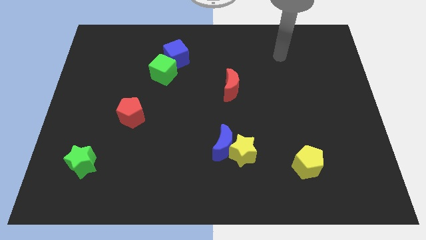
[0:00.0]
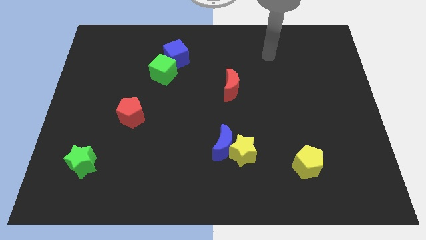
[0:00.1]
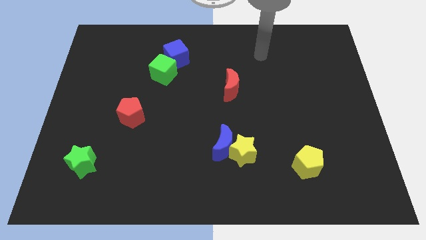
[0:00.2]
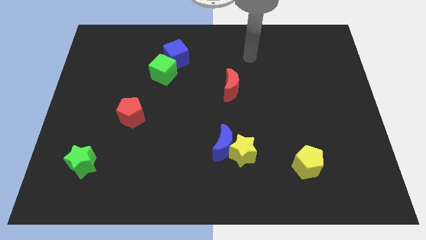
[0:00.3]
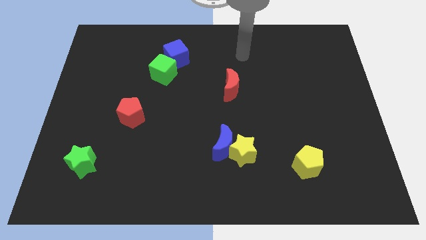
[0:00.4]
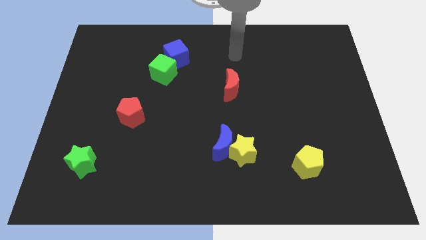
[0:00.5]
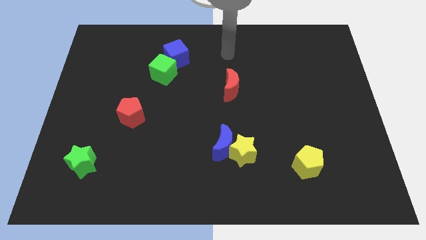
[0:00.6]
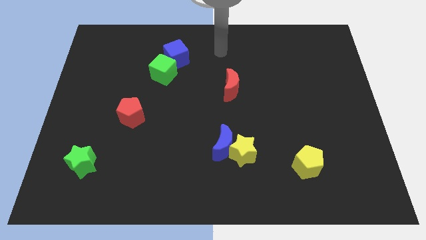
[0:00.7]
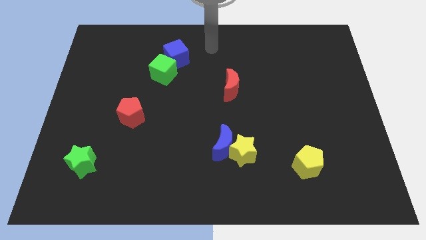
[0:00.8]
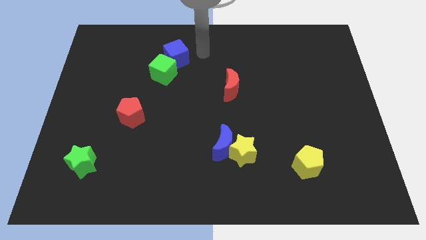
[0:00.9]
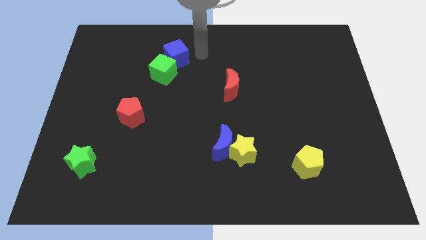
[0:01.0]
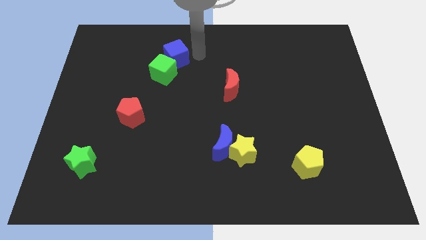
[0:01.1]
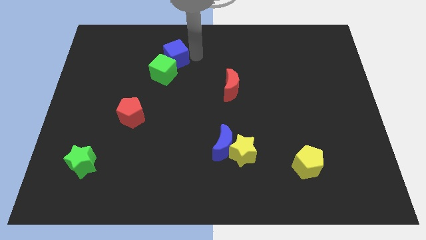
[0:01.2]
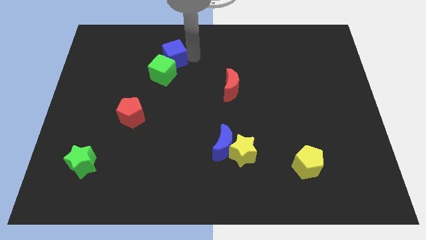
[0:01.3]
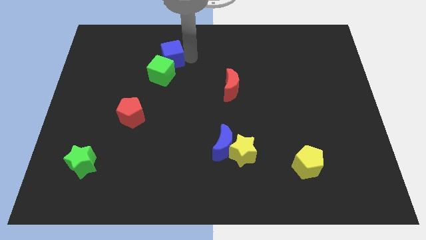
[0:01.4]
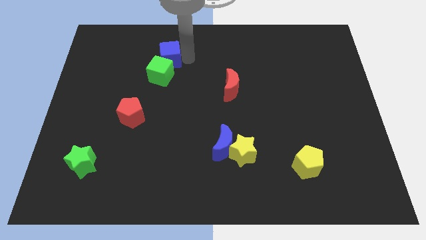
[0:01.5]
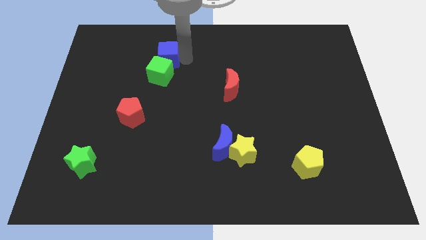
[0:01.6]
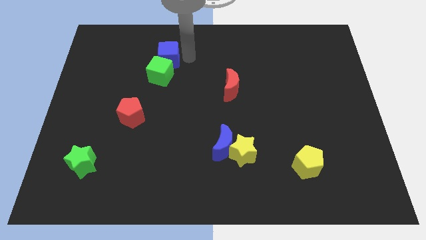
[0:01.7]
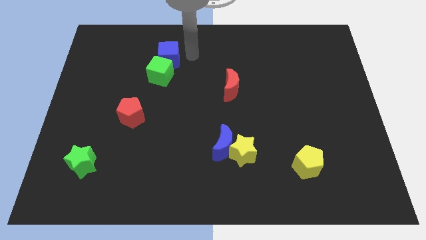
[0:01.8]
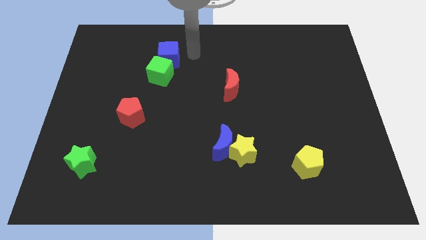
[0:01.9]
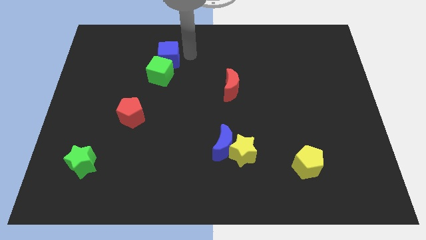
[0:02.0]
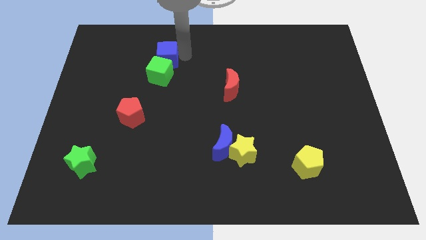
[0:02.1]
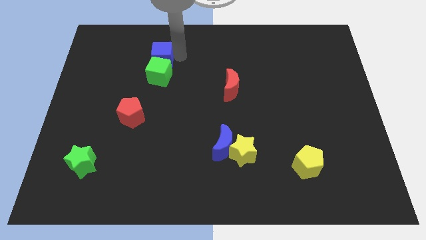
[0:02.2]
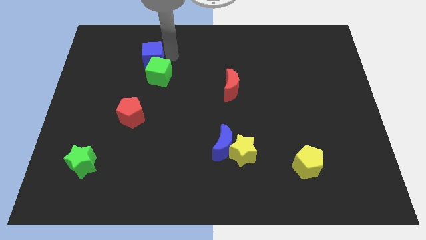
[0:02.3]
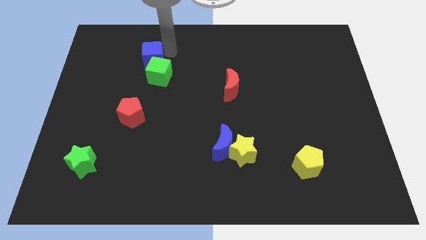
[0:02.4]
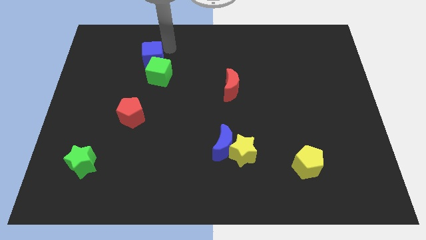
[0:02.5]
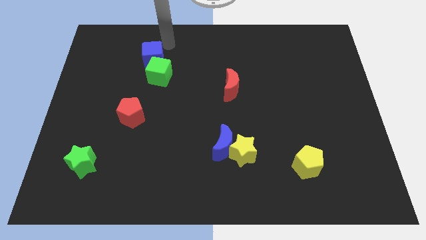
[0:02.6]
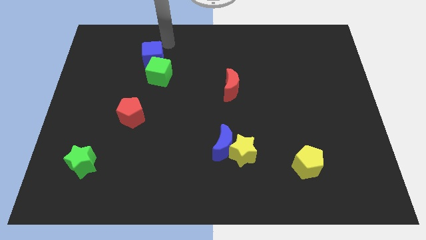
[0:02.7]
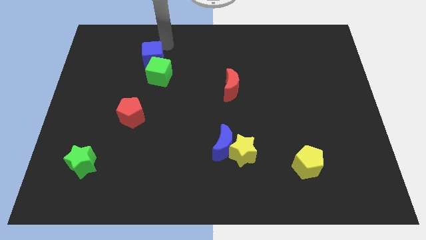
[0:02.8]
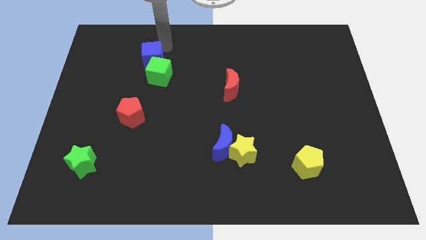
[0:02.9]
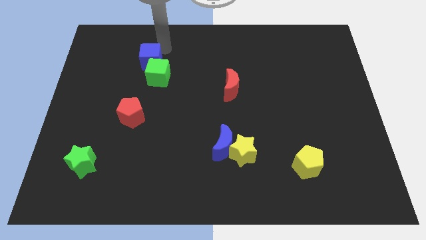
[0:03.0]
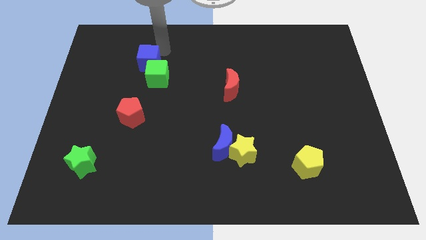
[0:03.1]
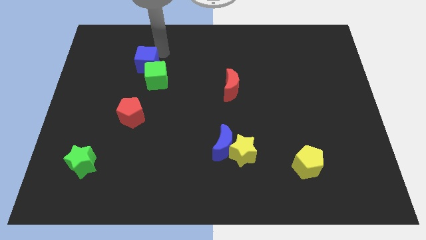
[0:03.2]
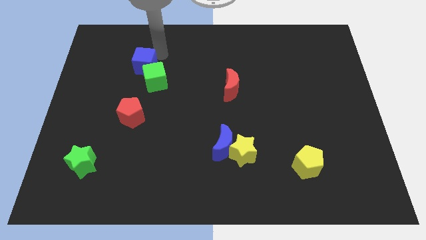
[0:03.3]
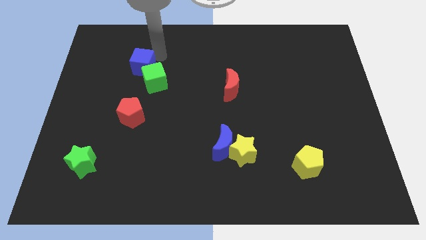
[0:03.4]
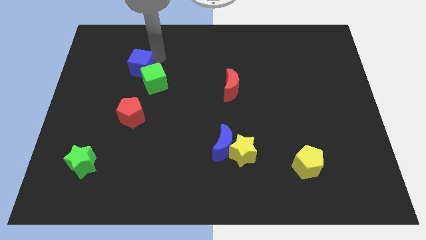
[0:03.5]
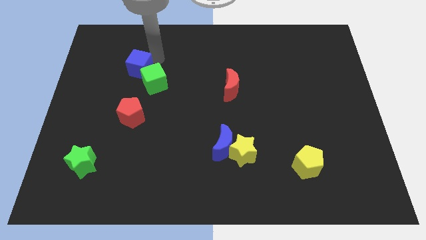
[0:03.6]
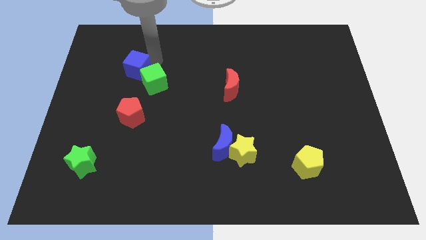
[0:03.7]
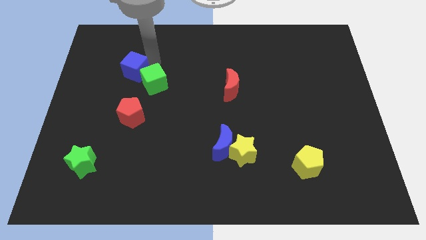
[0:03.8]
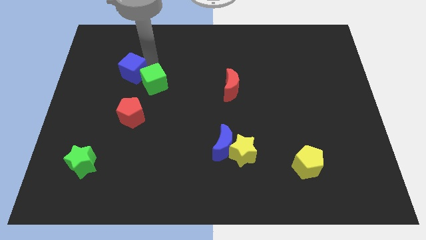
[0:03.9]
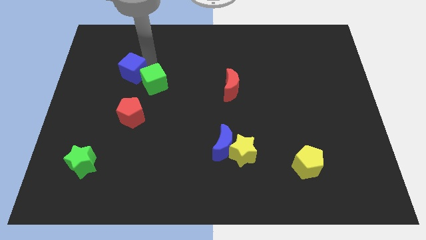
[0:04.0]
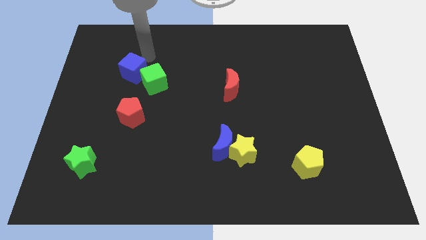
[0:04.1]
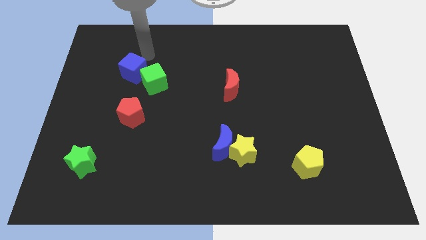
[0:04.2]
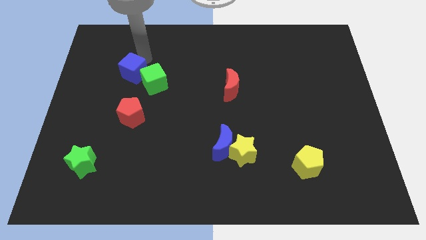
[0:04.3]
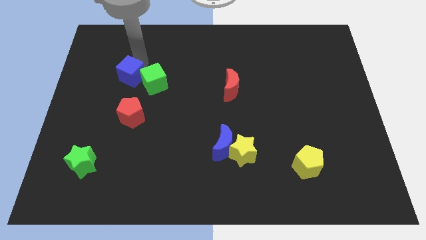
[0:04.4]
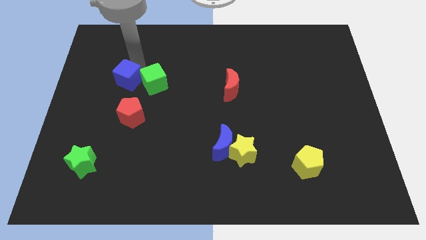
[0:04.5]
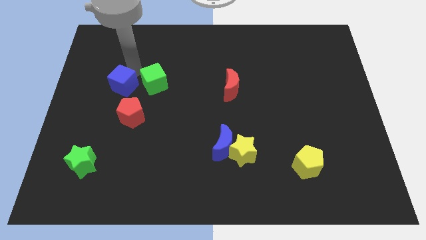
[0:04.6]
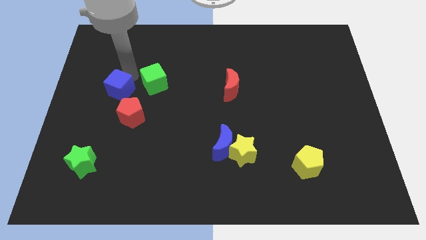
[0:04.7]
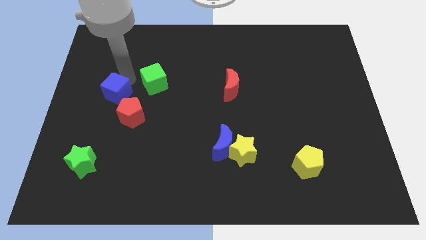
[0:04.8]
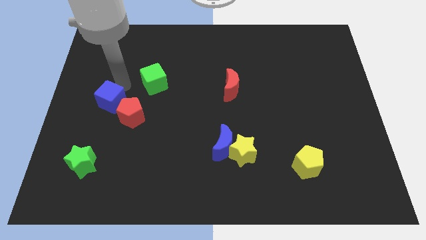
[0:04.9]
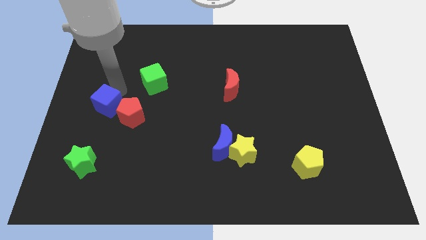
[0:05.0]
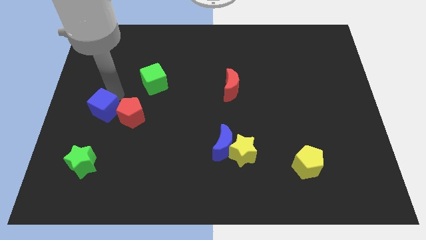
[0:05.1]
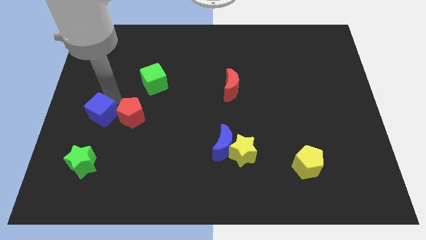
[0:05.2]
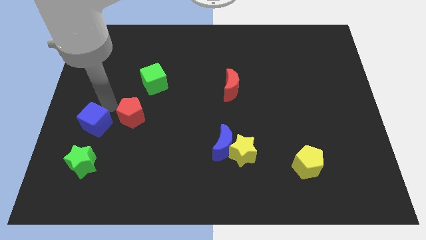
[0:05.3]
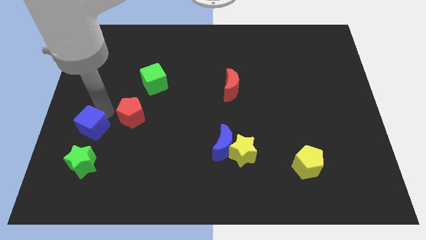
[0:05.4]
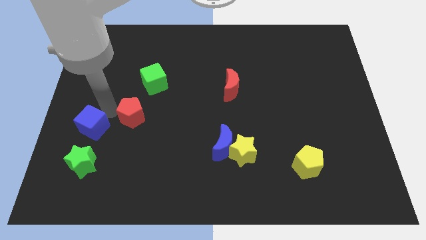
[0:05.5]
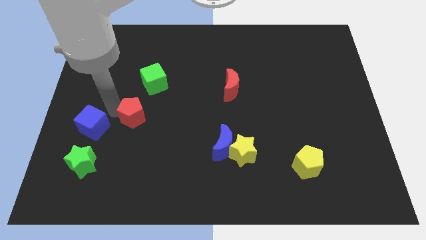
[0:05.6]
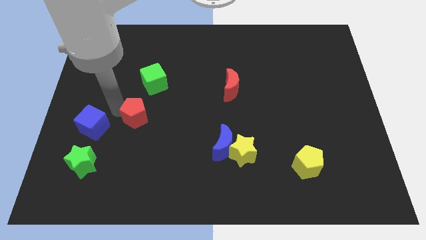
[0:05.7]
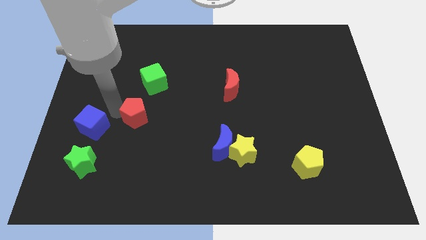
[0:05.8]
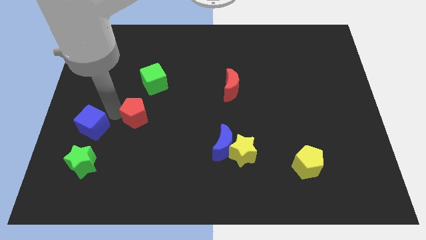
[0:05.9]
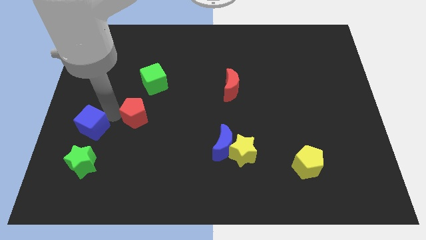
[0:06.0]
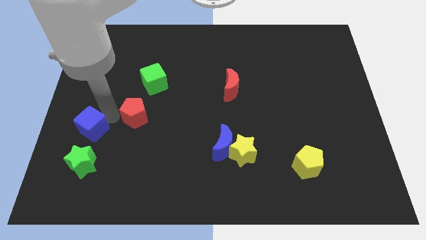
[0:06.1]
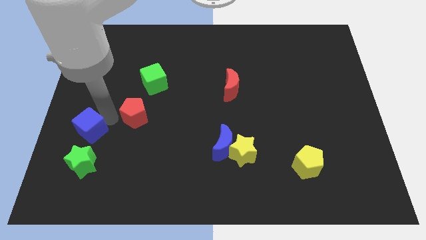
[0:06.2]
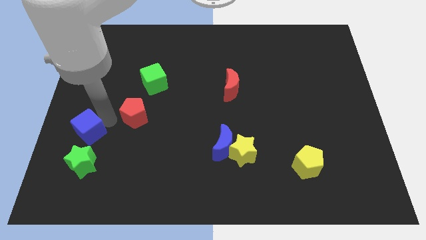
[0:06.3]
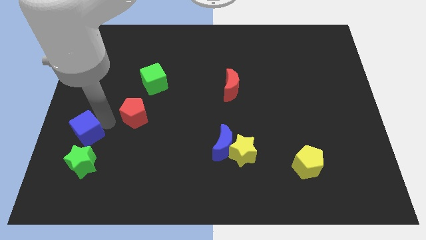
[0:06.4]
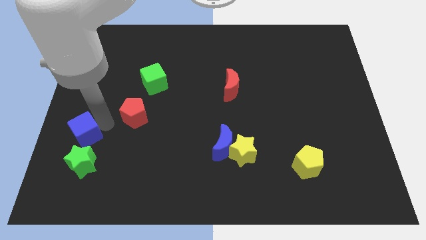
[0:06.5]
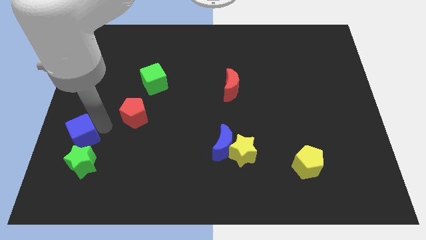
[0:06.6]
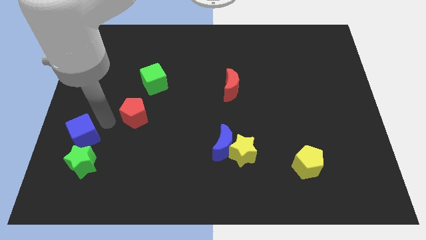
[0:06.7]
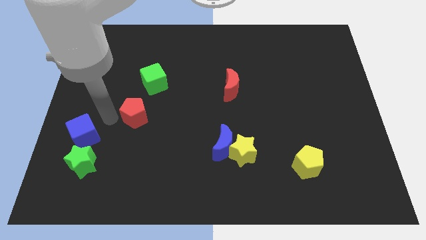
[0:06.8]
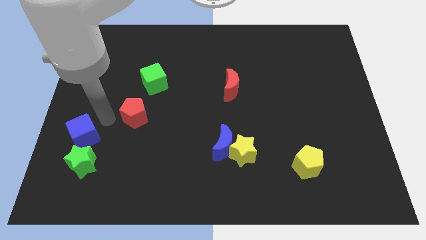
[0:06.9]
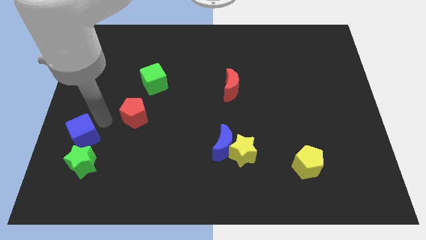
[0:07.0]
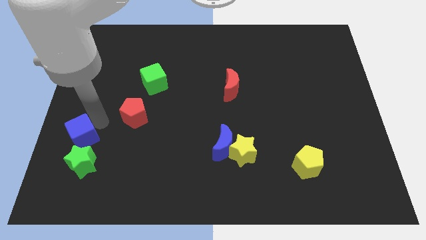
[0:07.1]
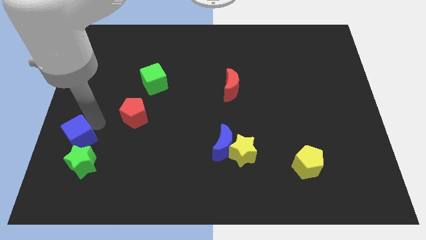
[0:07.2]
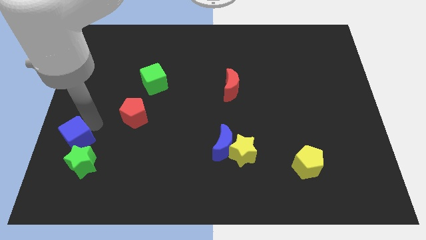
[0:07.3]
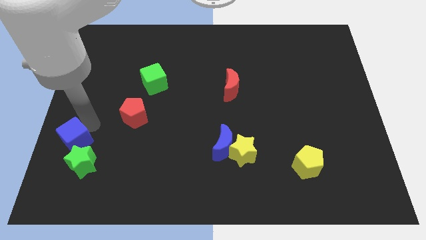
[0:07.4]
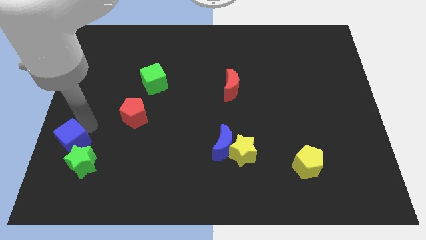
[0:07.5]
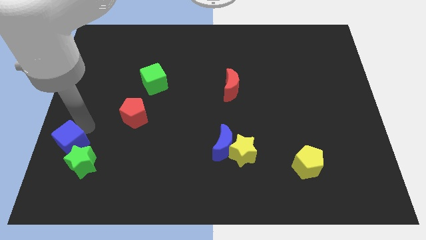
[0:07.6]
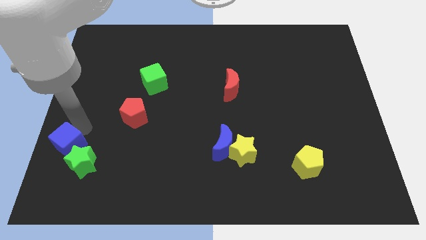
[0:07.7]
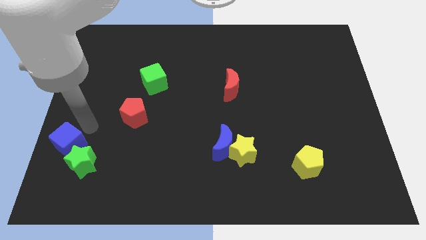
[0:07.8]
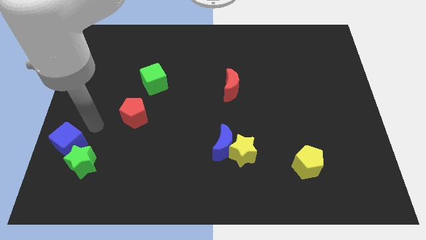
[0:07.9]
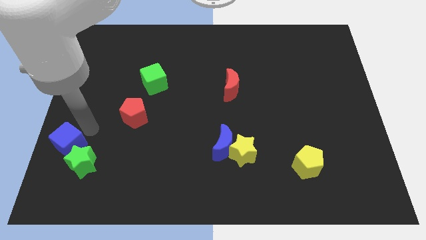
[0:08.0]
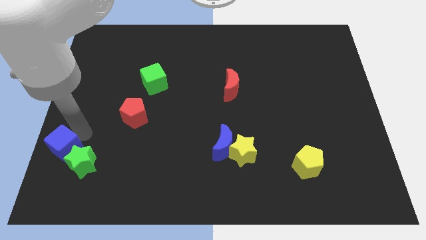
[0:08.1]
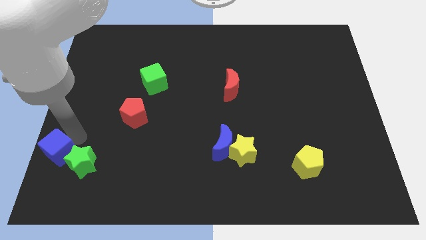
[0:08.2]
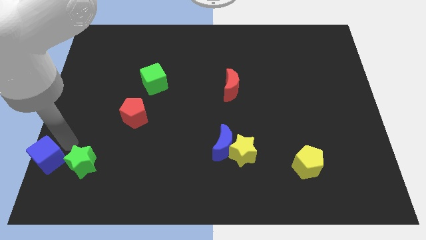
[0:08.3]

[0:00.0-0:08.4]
move the blue cube to the bottom left
